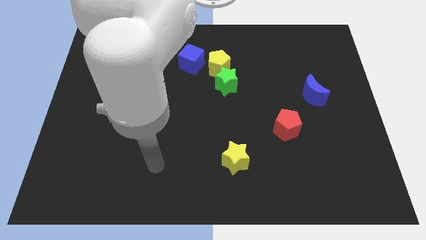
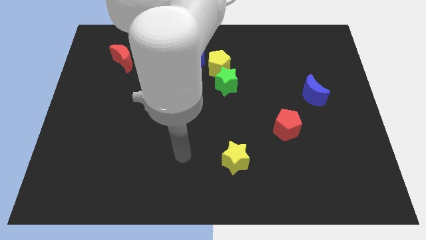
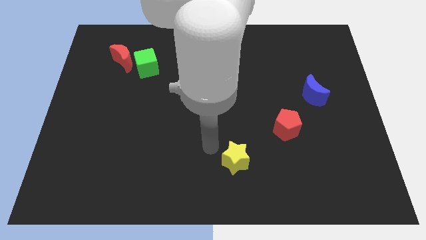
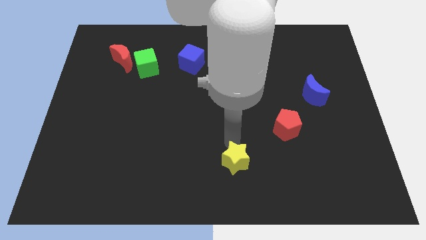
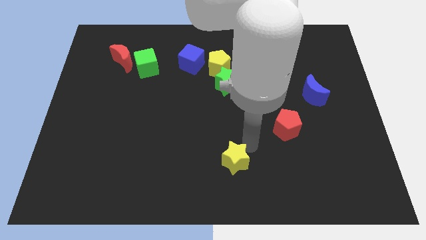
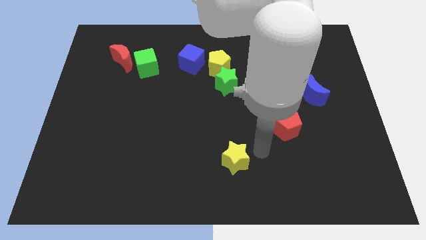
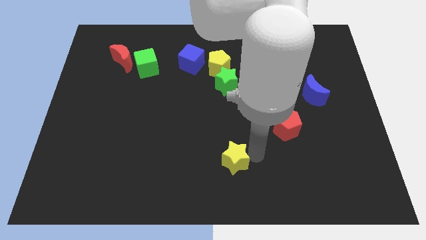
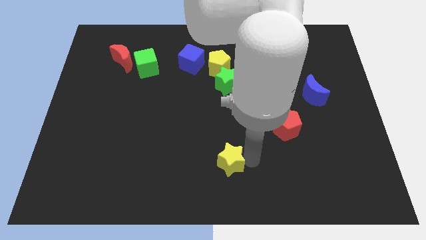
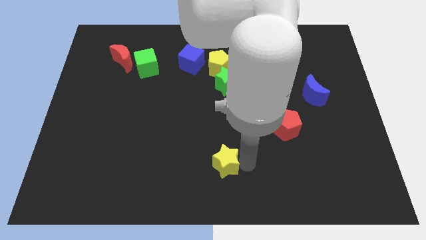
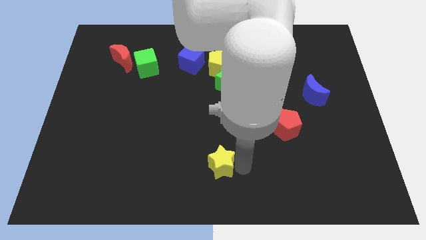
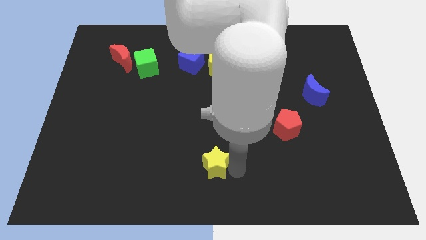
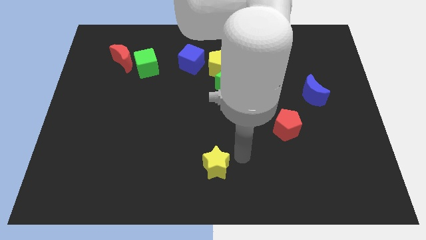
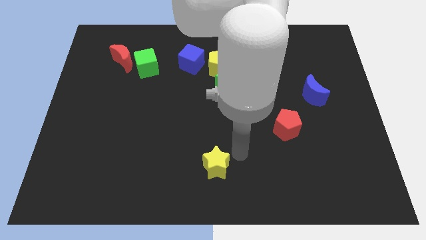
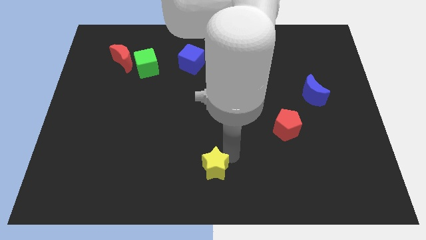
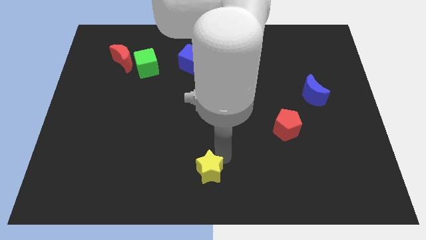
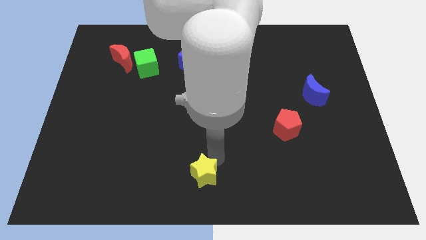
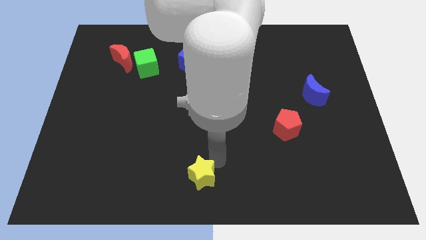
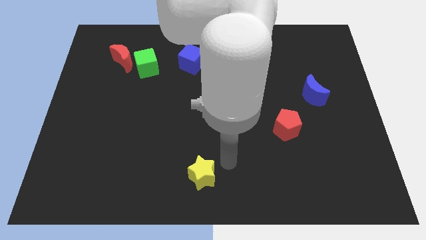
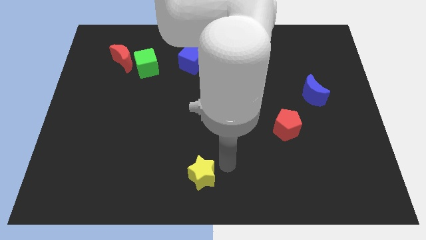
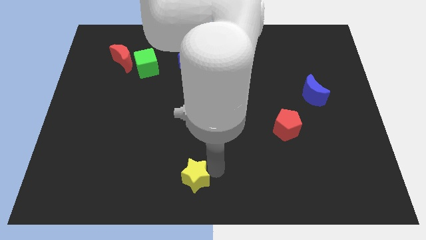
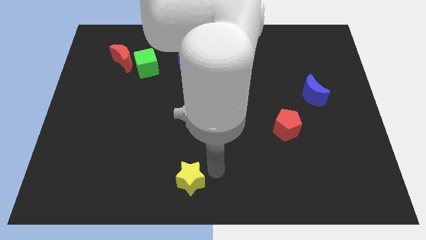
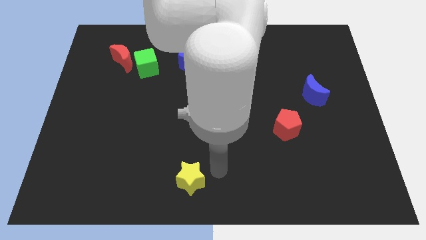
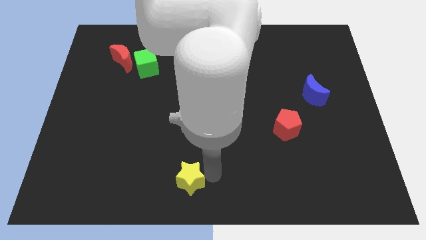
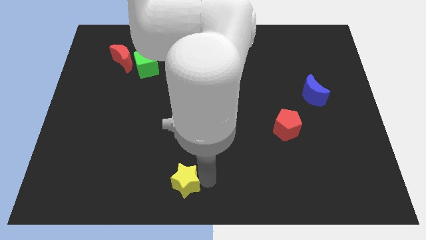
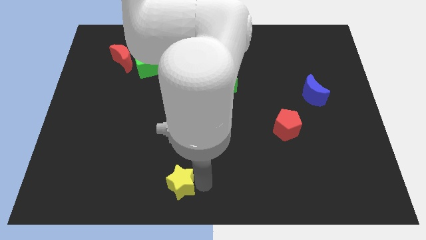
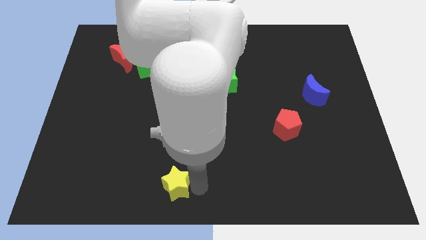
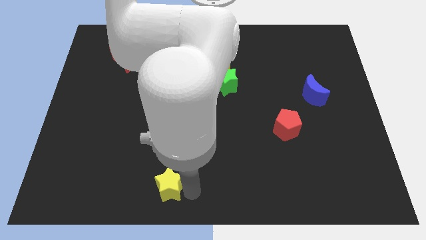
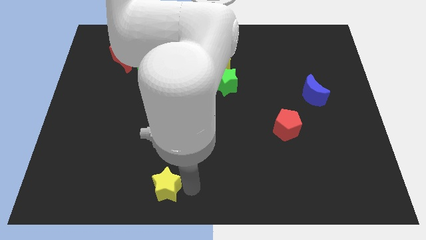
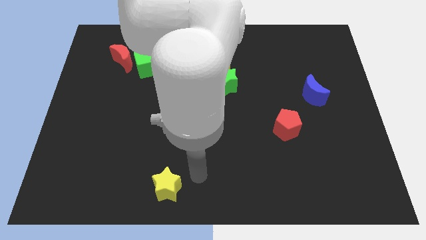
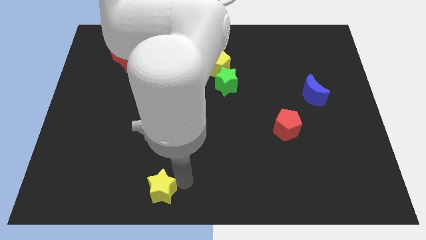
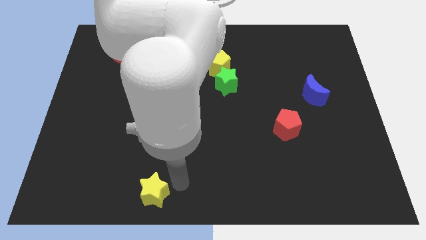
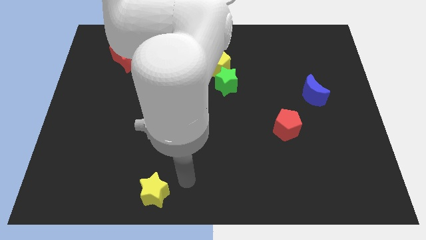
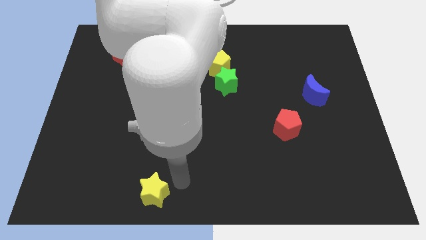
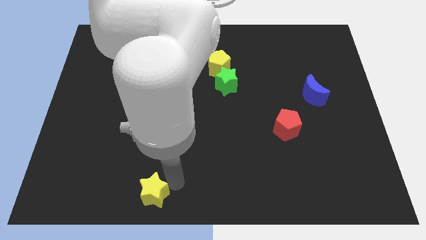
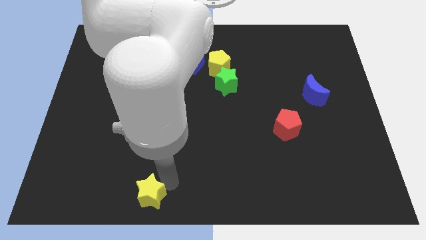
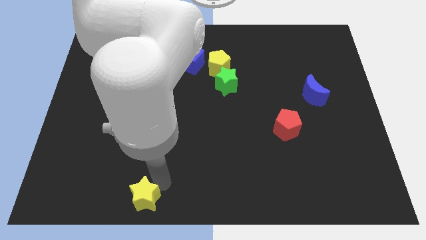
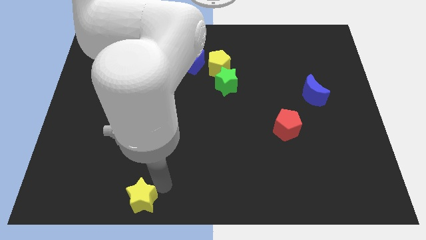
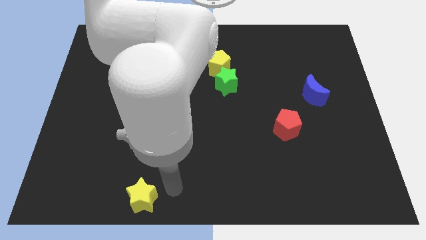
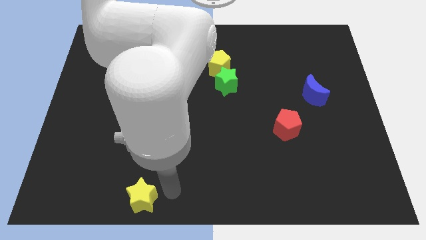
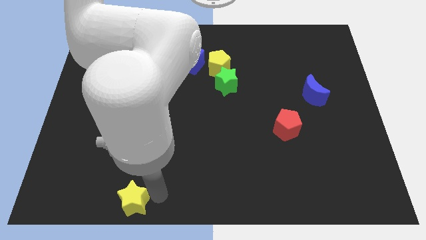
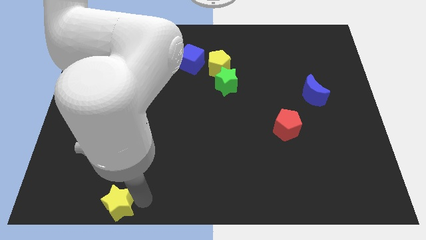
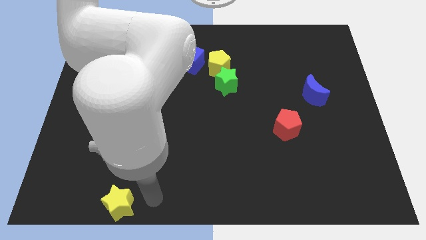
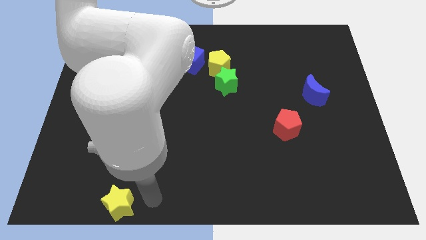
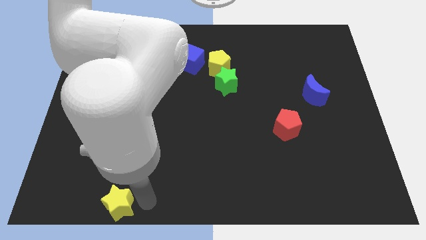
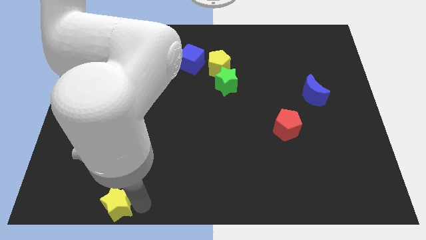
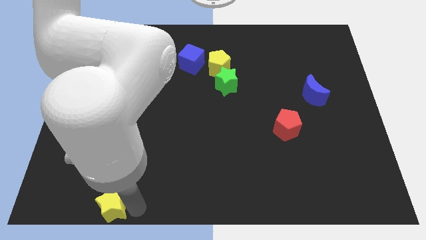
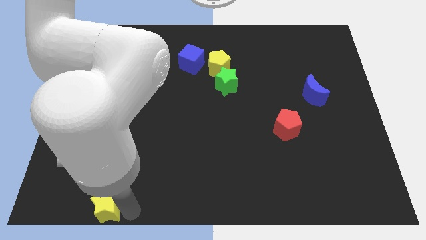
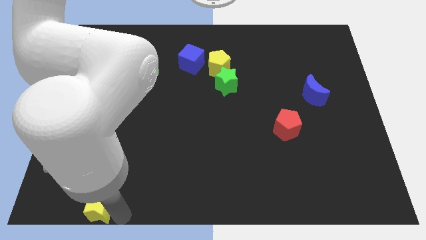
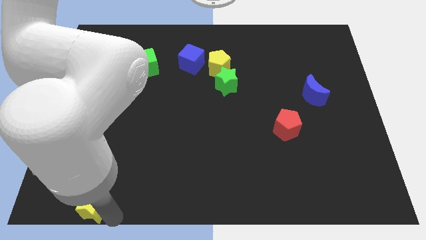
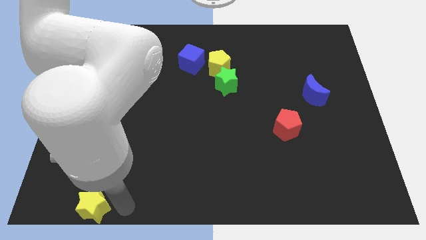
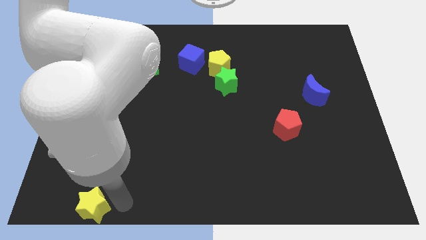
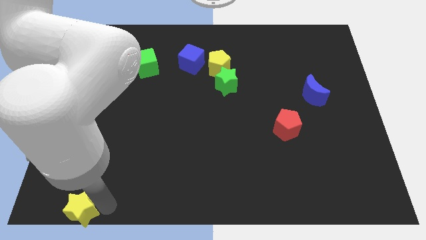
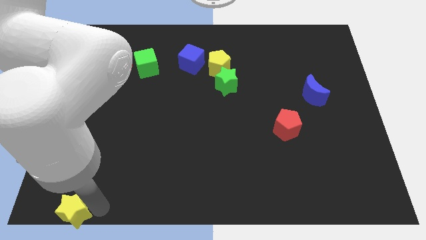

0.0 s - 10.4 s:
slide the yellow star to the lower left corner

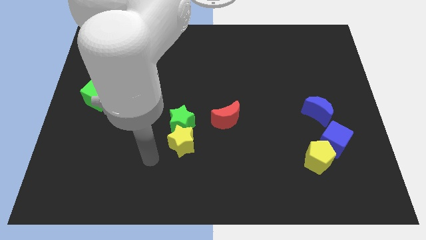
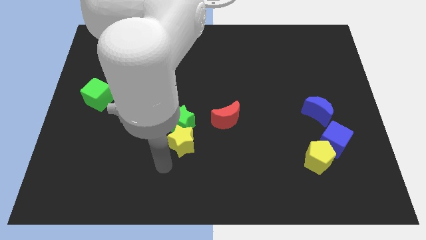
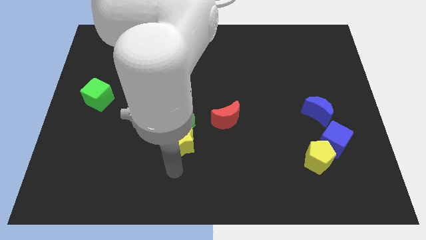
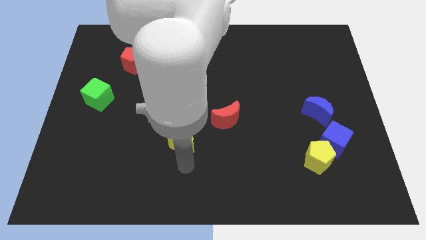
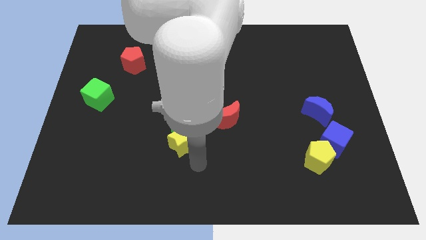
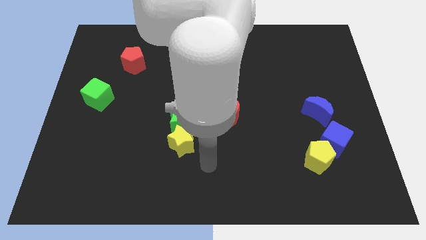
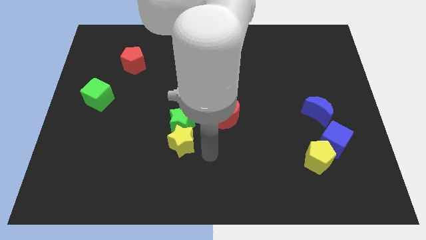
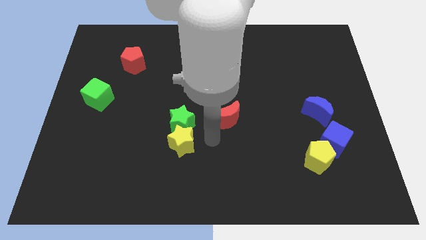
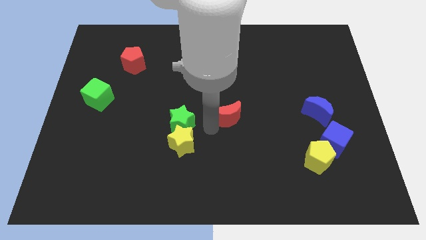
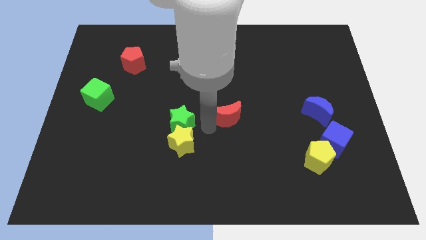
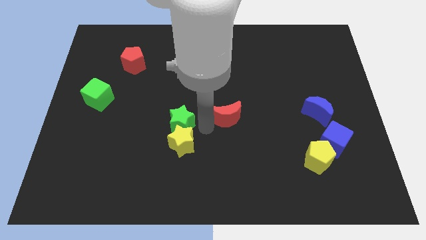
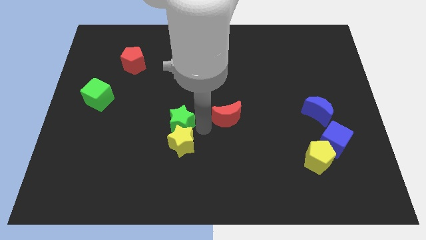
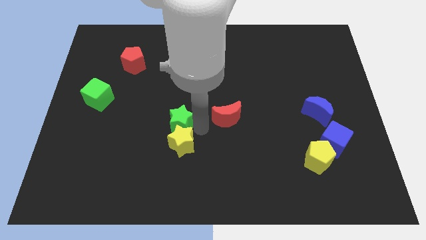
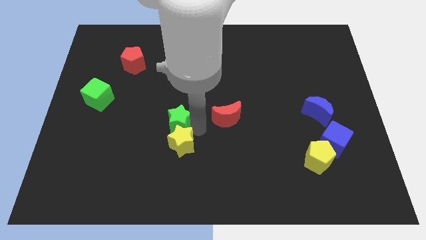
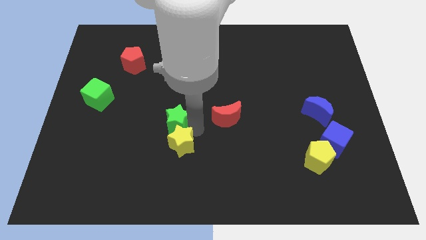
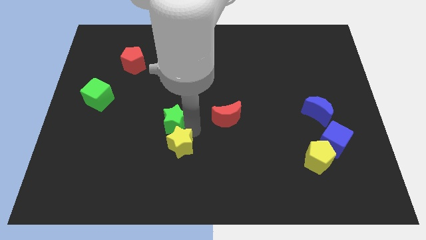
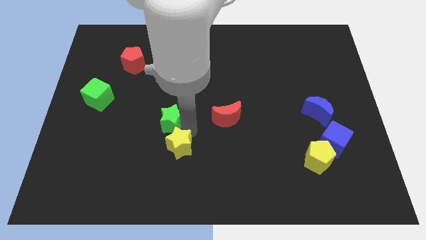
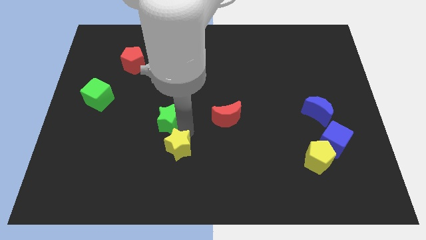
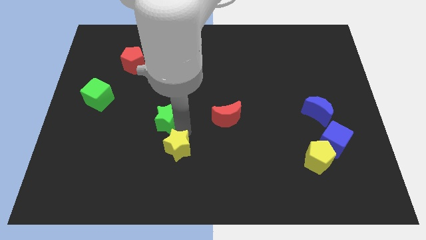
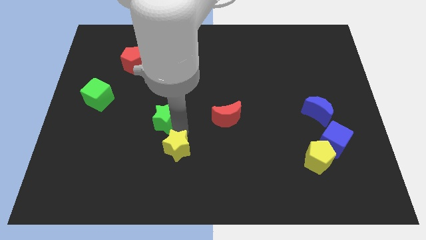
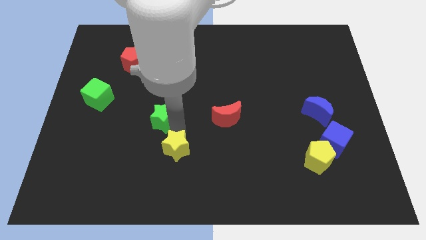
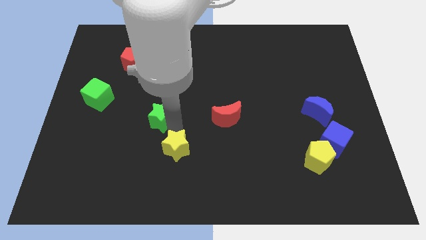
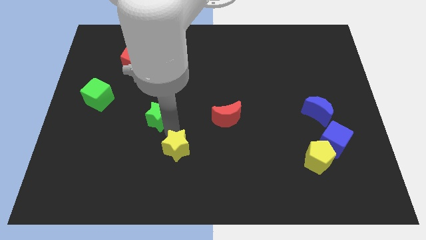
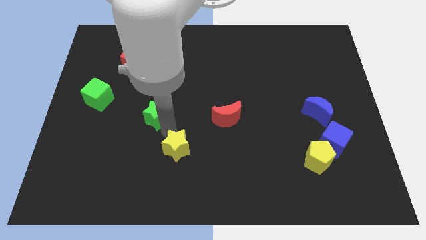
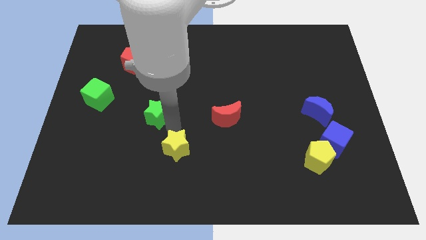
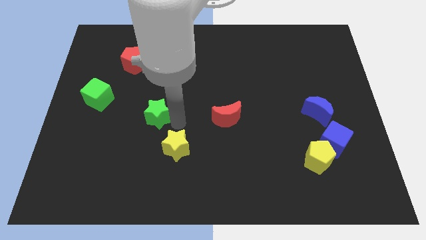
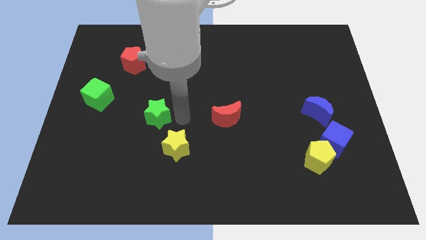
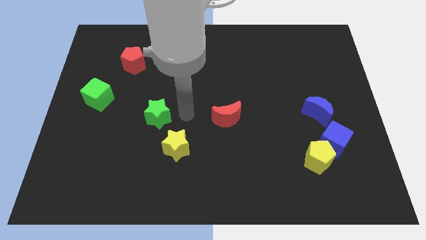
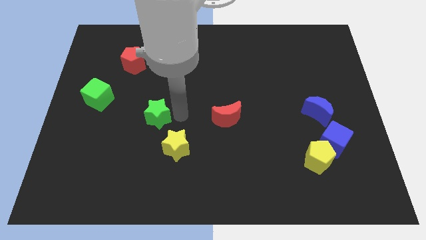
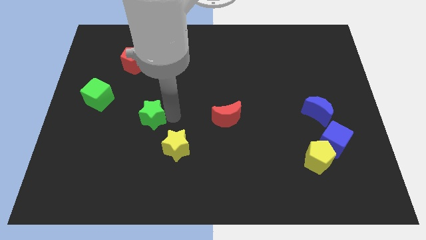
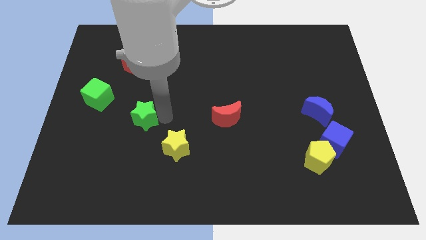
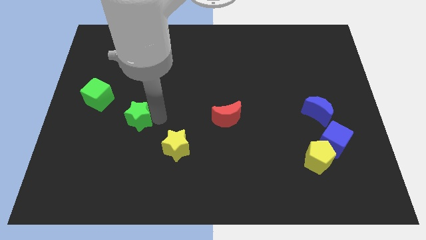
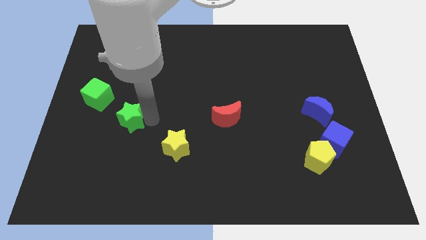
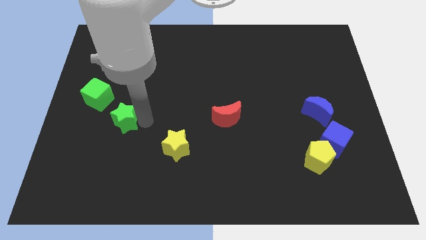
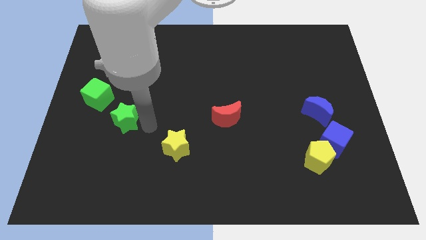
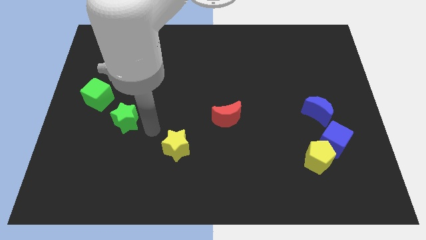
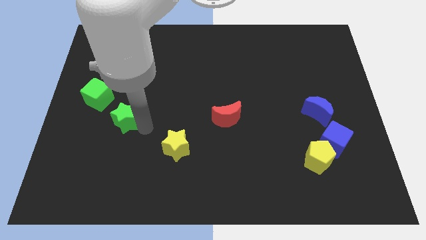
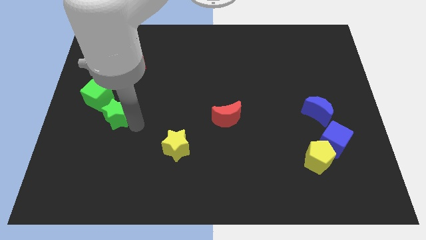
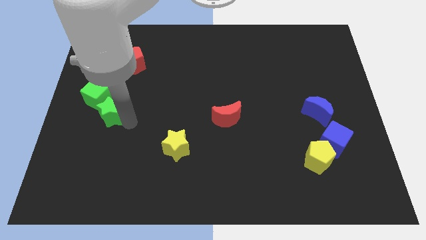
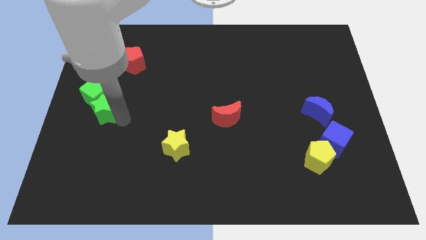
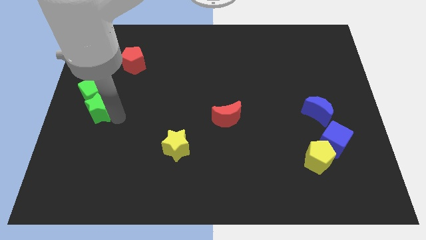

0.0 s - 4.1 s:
move the green star to the left side of the board
